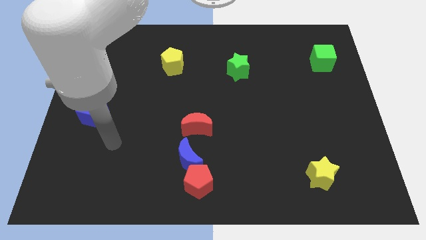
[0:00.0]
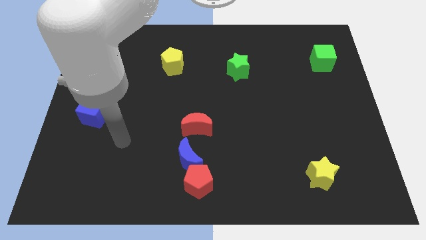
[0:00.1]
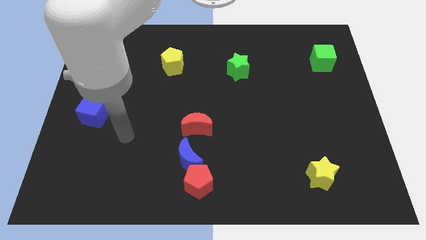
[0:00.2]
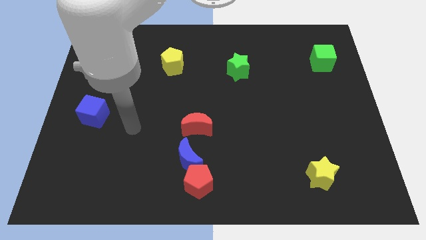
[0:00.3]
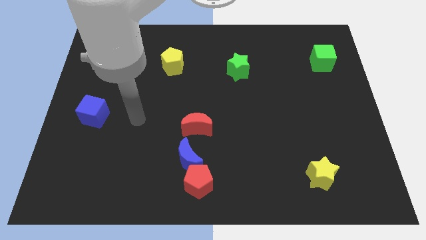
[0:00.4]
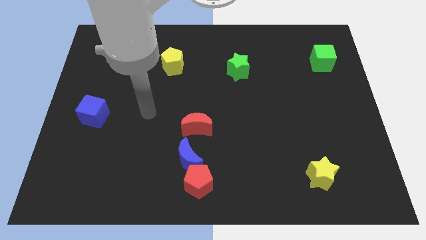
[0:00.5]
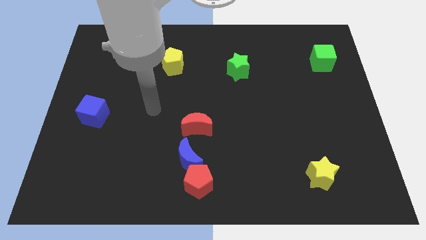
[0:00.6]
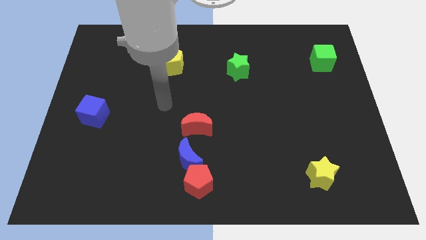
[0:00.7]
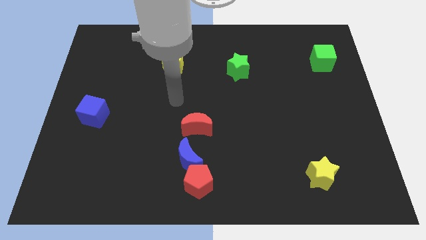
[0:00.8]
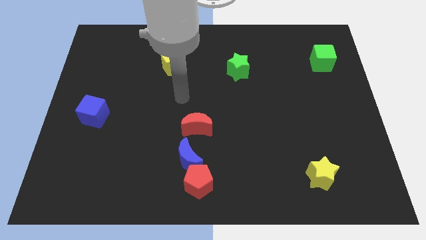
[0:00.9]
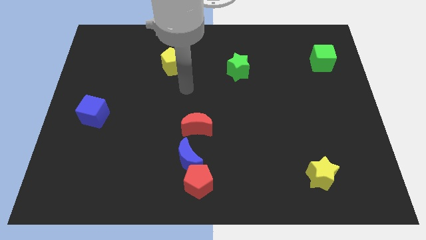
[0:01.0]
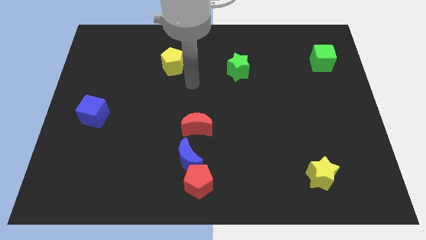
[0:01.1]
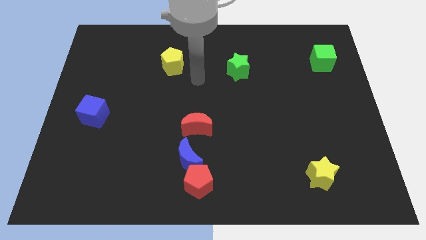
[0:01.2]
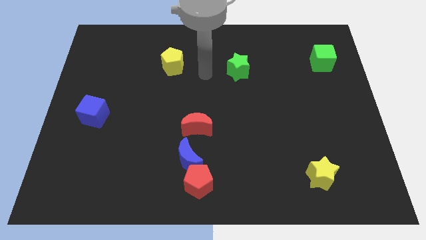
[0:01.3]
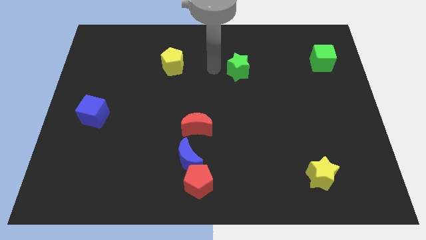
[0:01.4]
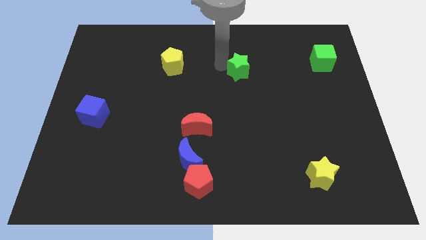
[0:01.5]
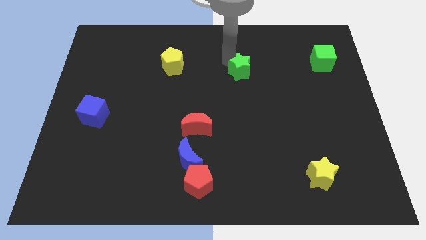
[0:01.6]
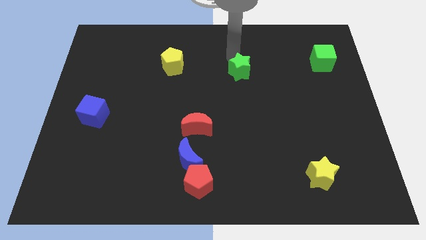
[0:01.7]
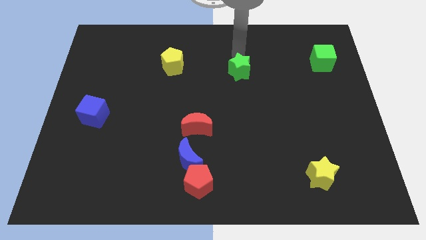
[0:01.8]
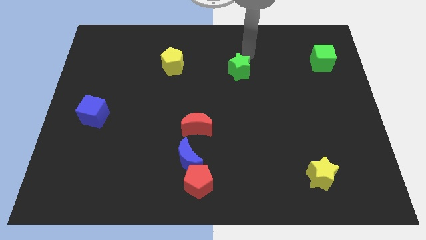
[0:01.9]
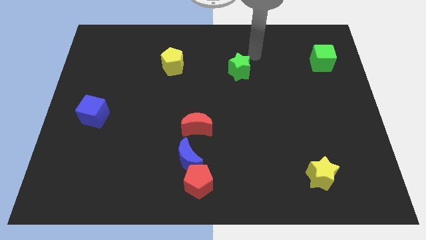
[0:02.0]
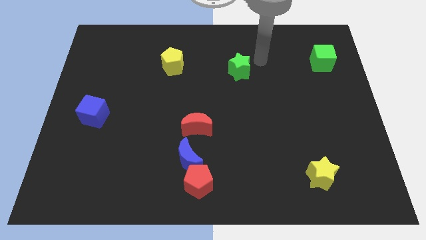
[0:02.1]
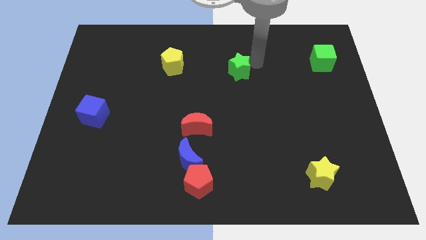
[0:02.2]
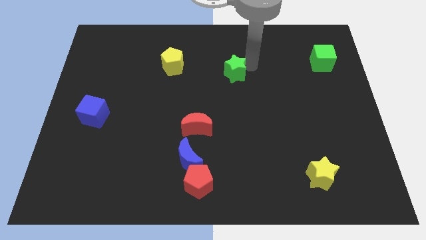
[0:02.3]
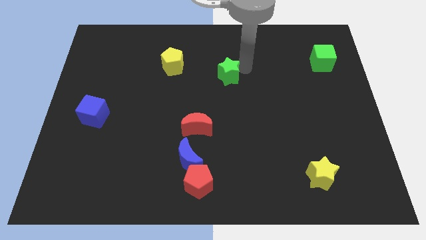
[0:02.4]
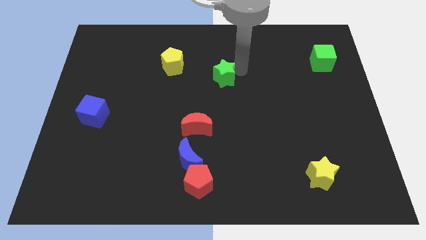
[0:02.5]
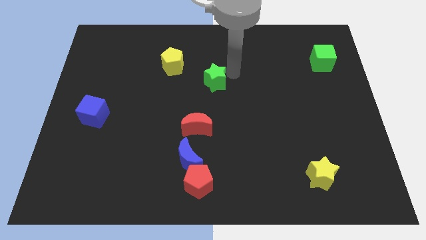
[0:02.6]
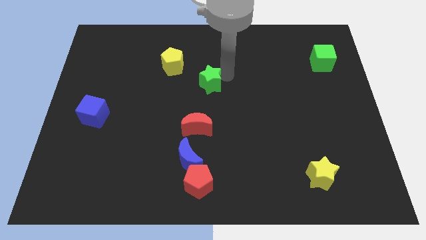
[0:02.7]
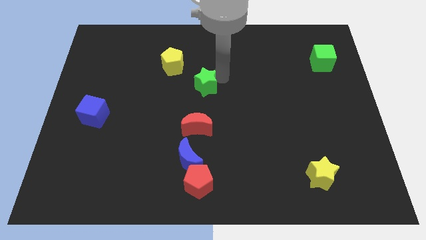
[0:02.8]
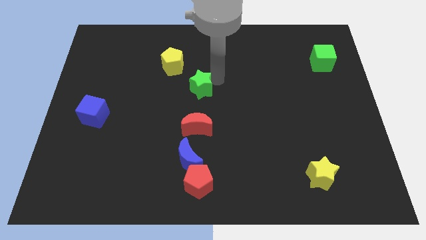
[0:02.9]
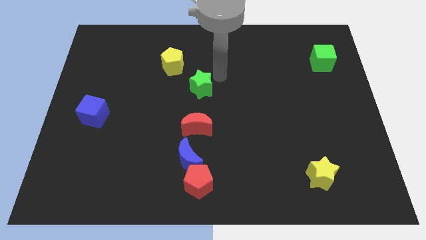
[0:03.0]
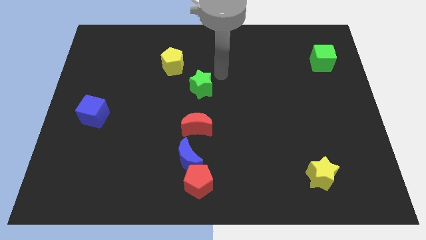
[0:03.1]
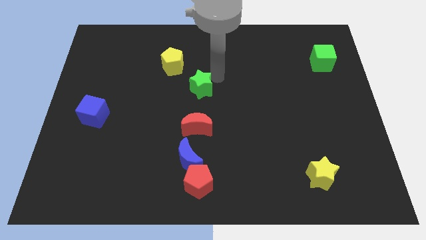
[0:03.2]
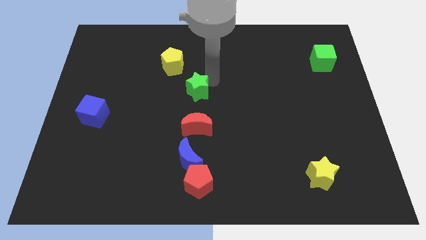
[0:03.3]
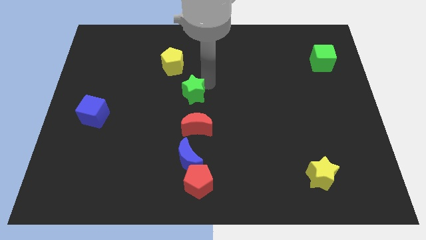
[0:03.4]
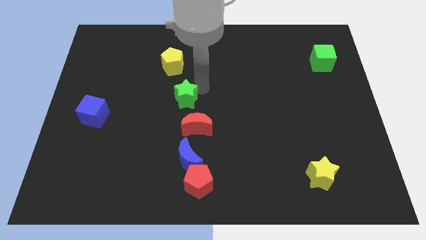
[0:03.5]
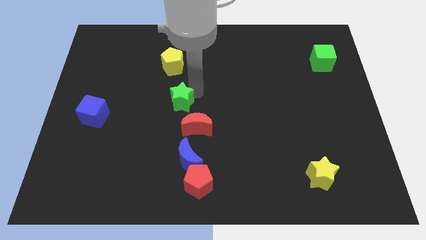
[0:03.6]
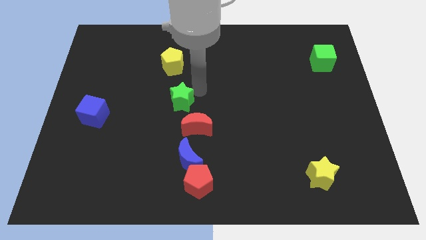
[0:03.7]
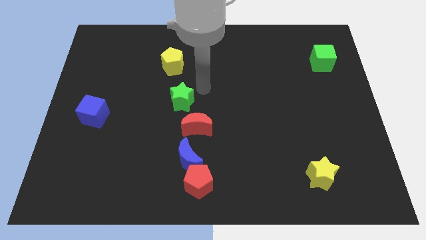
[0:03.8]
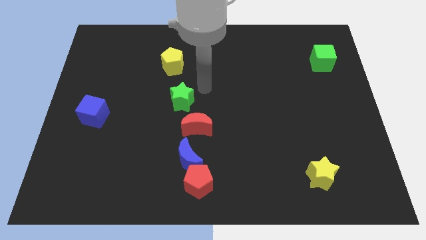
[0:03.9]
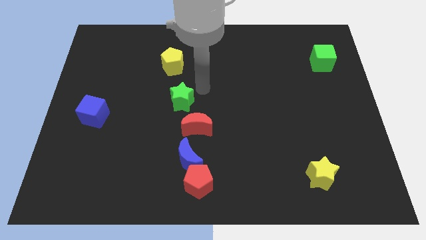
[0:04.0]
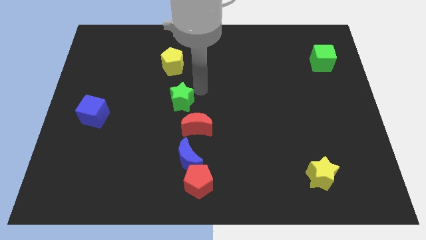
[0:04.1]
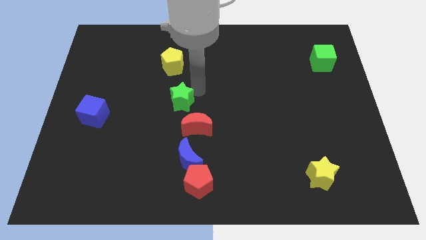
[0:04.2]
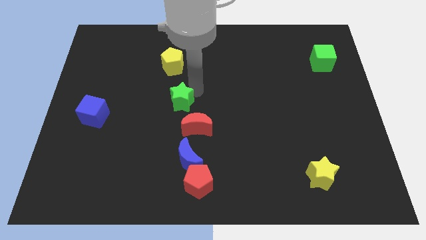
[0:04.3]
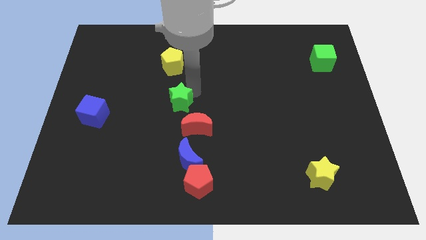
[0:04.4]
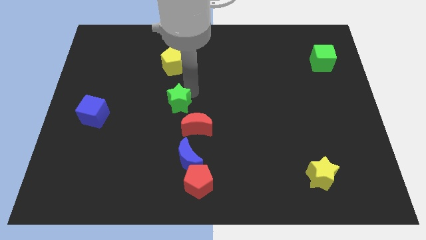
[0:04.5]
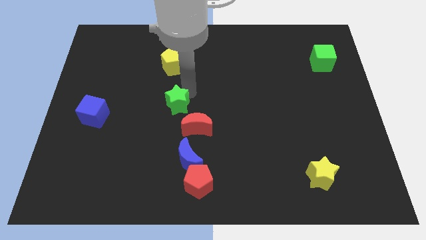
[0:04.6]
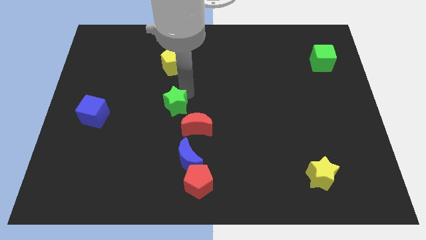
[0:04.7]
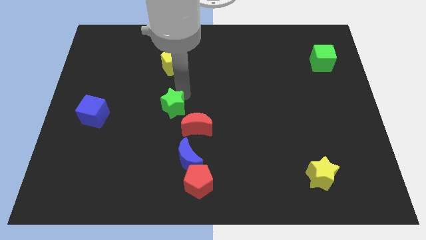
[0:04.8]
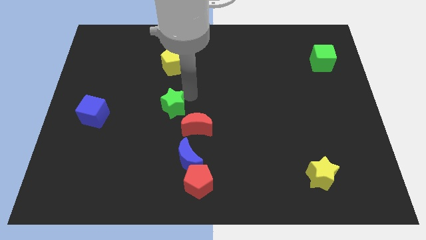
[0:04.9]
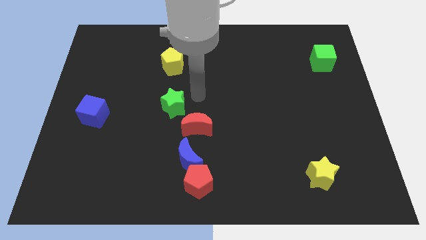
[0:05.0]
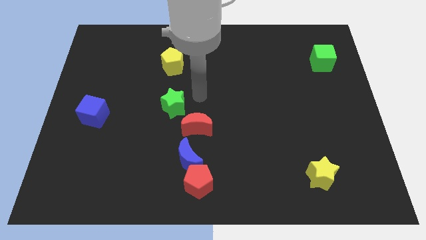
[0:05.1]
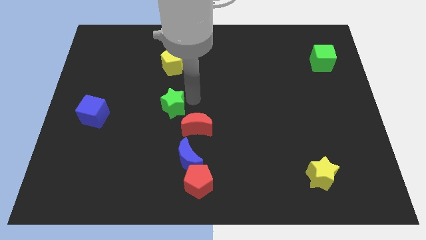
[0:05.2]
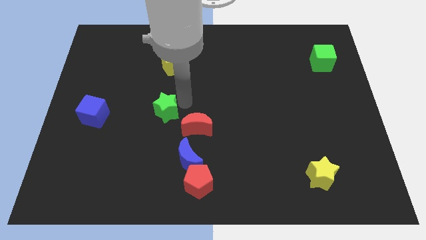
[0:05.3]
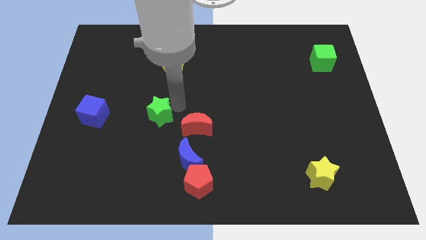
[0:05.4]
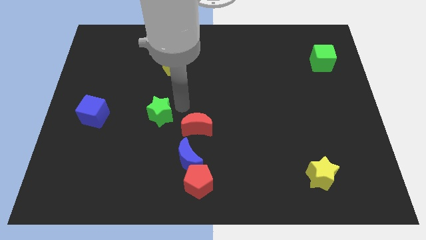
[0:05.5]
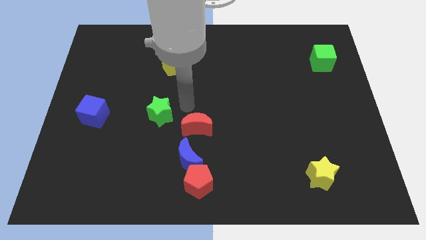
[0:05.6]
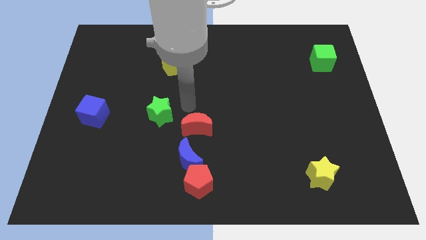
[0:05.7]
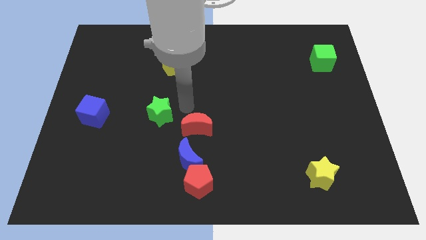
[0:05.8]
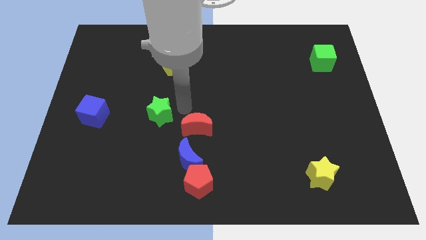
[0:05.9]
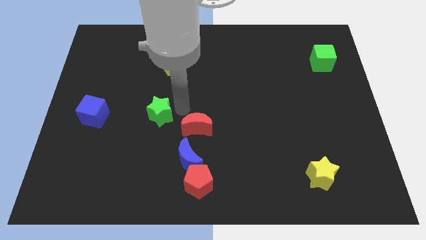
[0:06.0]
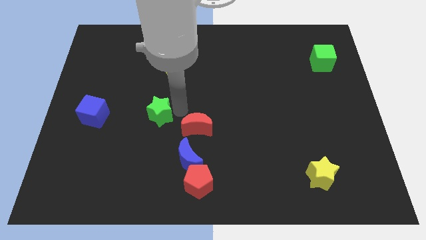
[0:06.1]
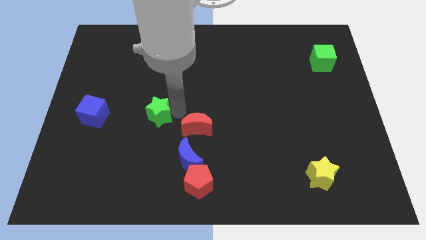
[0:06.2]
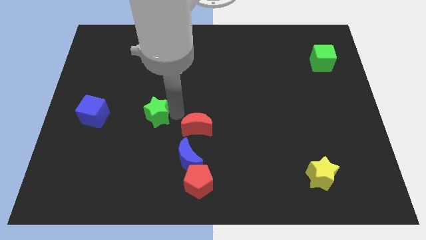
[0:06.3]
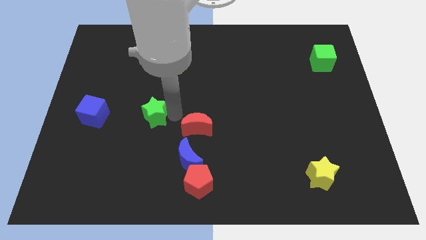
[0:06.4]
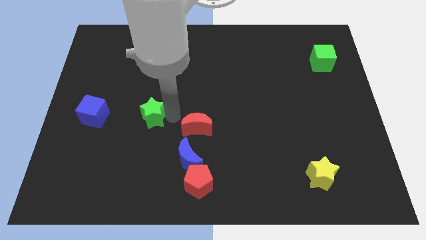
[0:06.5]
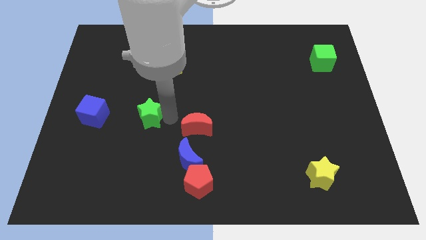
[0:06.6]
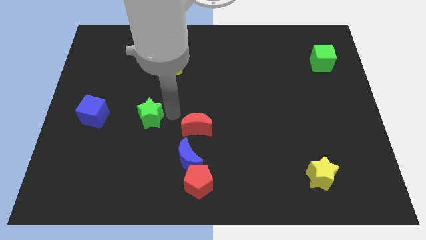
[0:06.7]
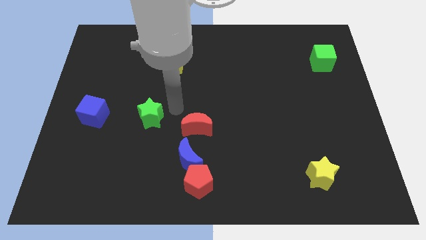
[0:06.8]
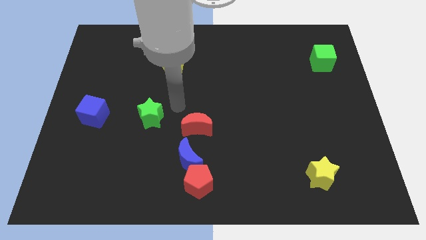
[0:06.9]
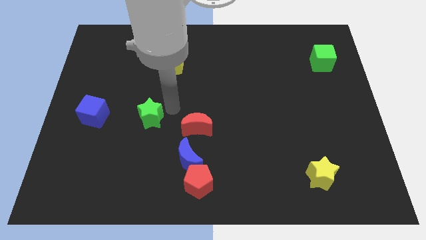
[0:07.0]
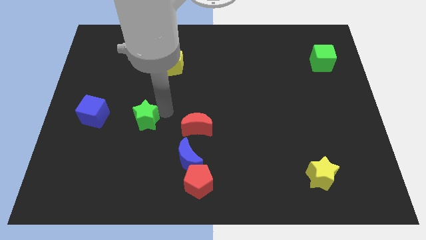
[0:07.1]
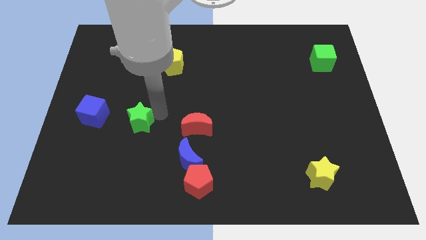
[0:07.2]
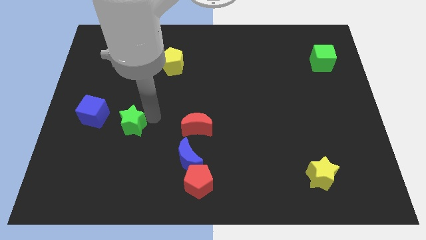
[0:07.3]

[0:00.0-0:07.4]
move the green star to the bottom right of the blue cube
